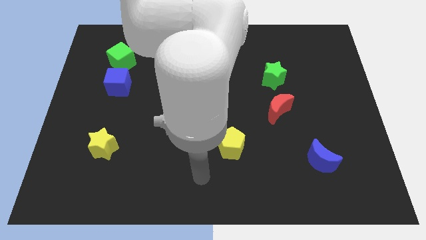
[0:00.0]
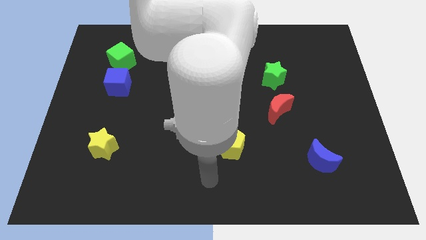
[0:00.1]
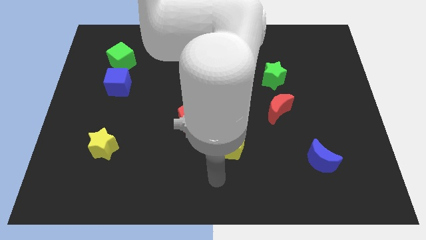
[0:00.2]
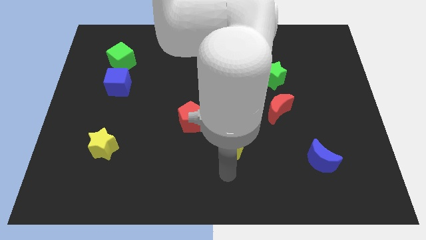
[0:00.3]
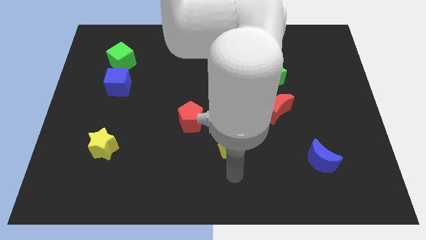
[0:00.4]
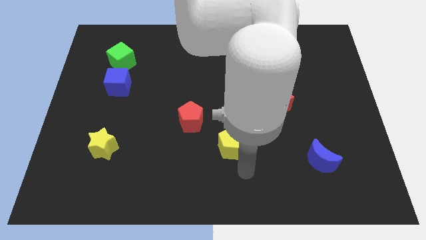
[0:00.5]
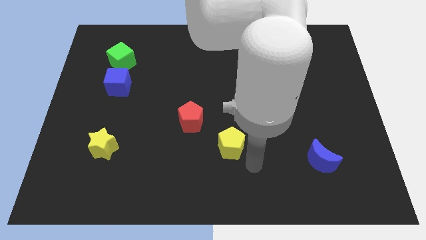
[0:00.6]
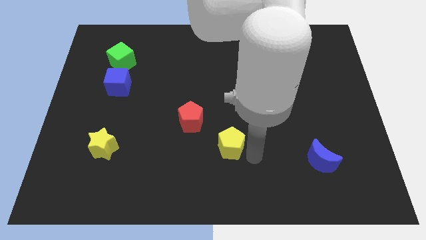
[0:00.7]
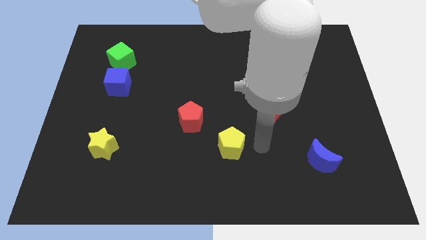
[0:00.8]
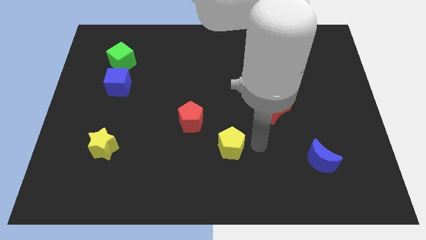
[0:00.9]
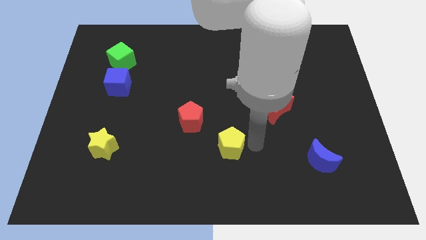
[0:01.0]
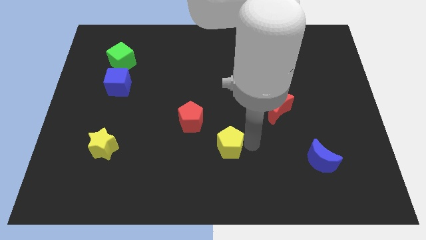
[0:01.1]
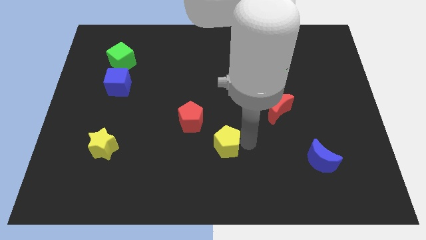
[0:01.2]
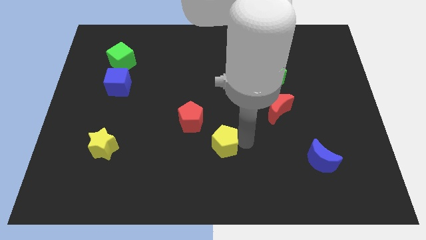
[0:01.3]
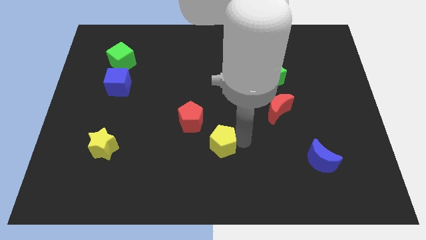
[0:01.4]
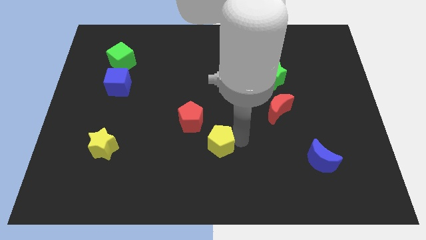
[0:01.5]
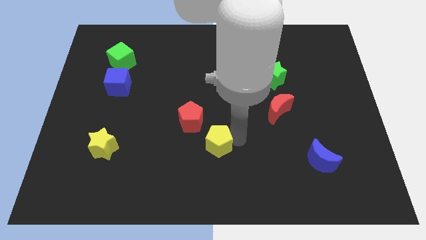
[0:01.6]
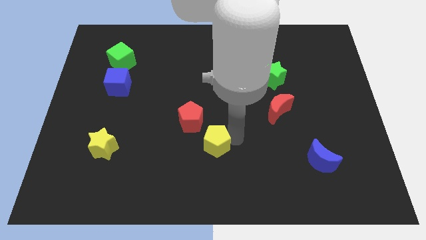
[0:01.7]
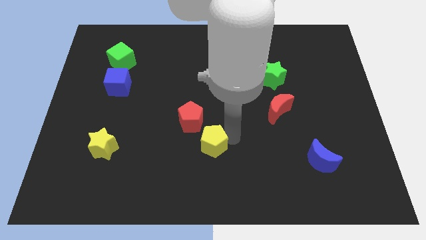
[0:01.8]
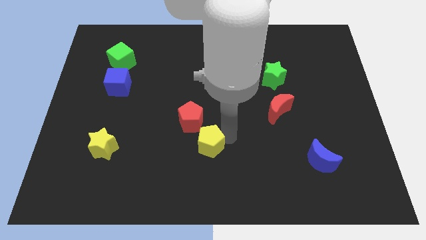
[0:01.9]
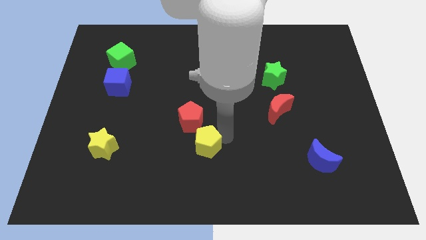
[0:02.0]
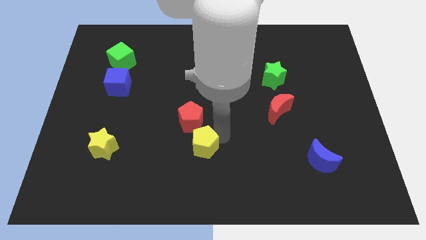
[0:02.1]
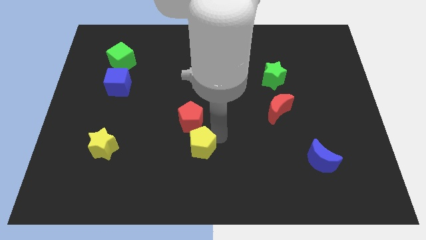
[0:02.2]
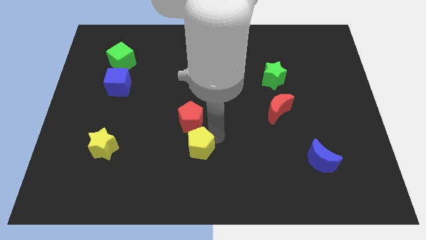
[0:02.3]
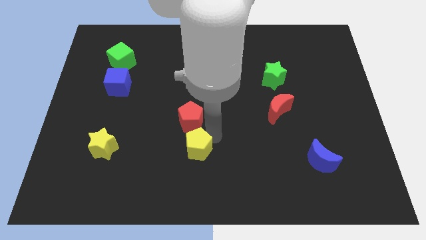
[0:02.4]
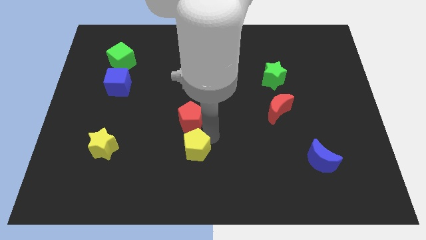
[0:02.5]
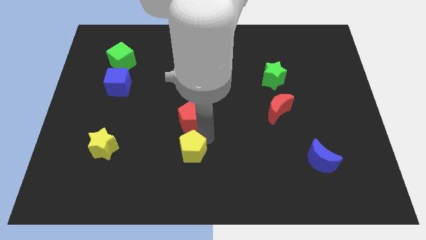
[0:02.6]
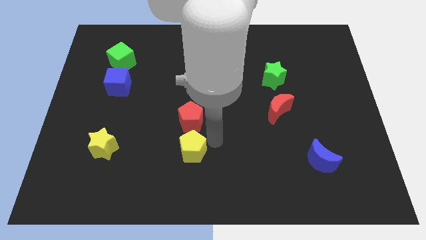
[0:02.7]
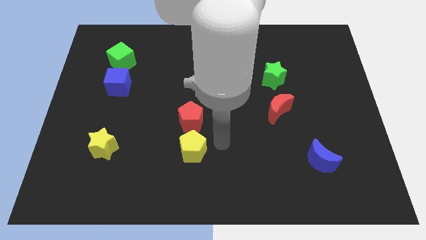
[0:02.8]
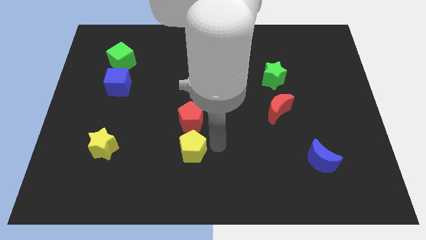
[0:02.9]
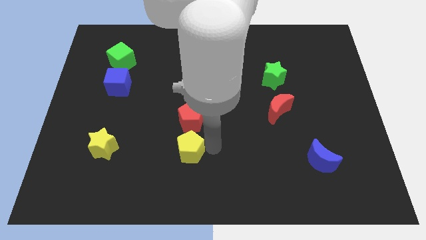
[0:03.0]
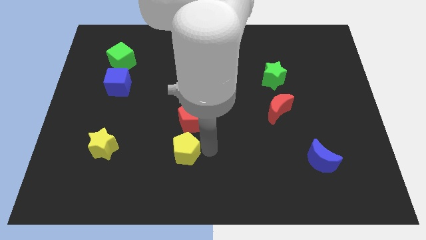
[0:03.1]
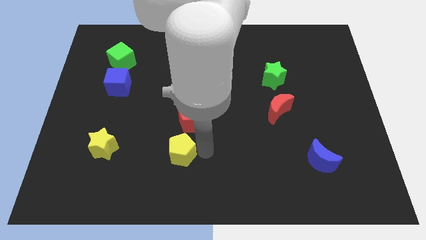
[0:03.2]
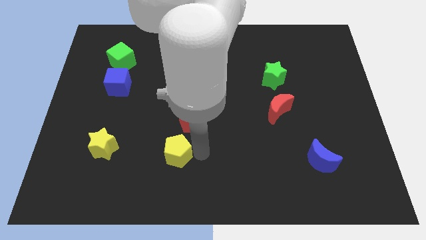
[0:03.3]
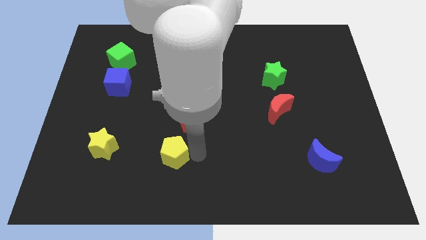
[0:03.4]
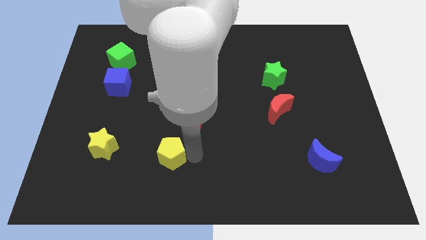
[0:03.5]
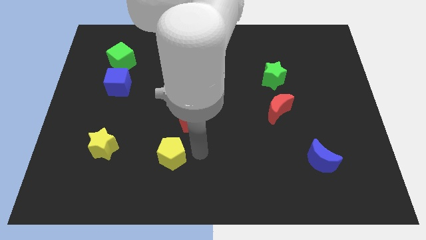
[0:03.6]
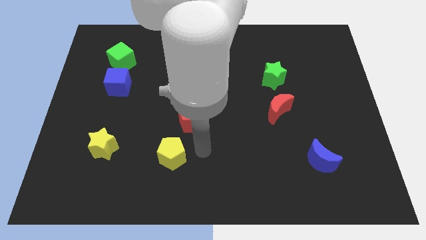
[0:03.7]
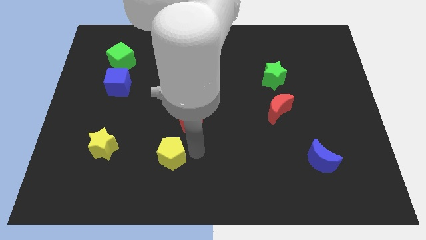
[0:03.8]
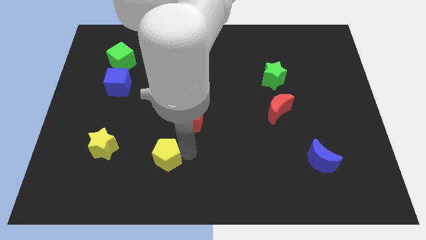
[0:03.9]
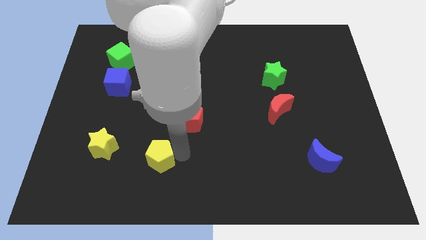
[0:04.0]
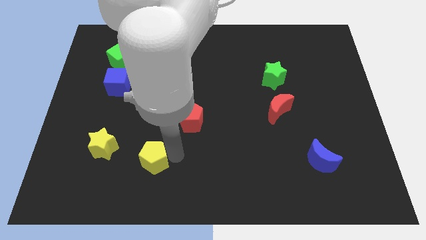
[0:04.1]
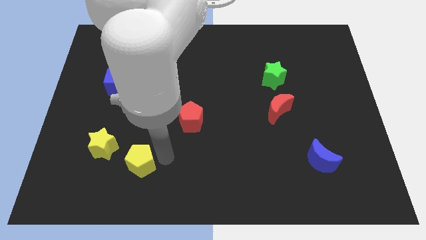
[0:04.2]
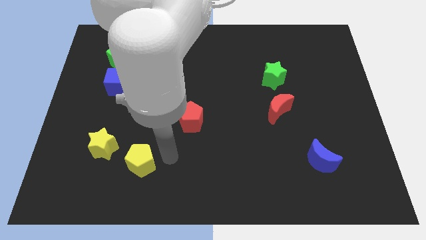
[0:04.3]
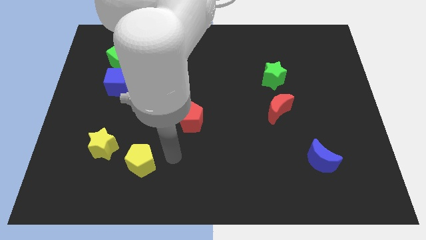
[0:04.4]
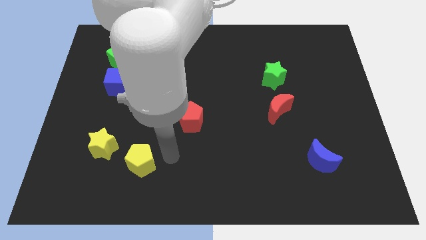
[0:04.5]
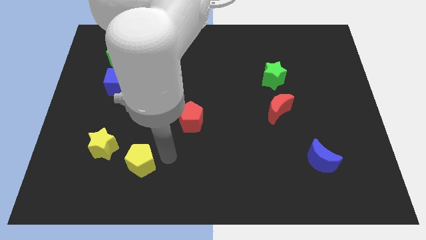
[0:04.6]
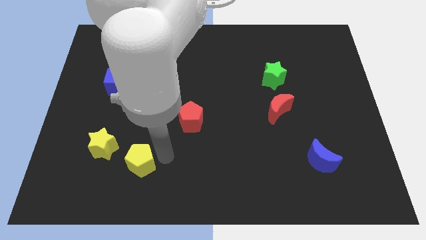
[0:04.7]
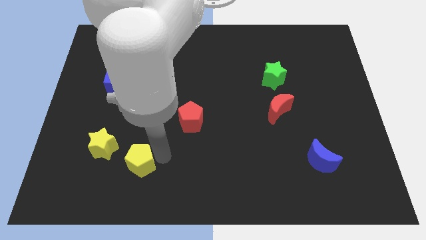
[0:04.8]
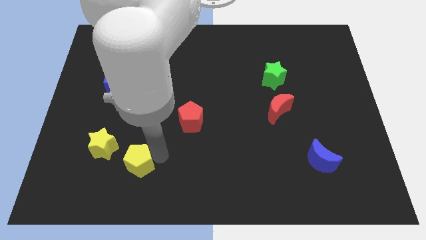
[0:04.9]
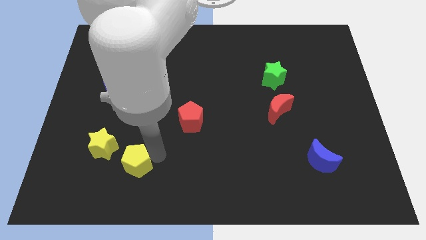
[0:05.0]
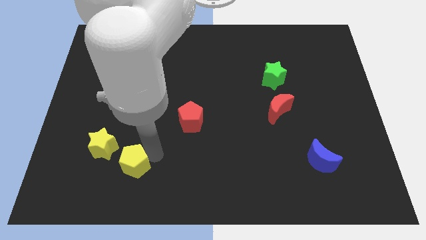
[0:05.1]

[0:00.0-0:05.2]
move the yellow pentagon left

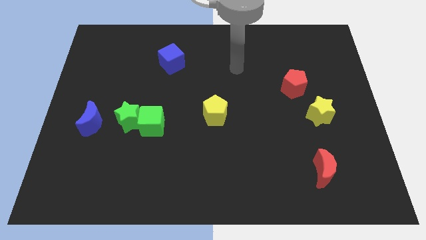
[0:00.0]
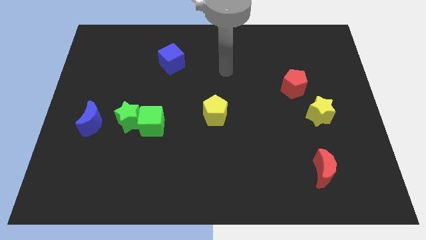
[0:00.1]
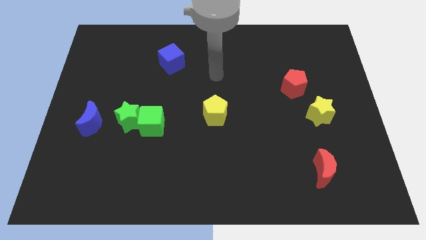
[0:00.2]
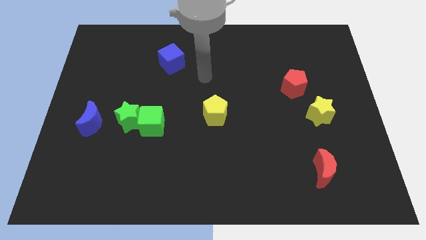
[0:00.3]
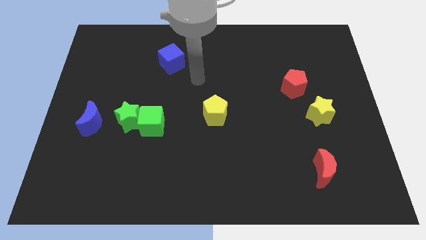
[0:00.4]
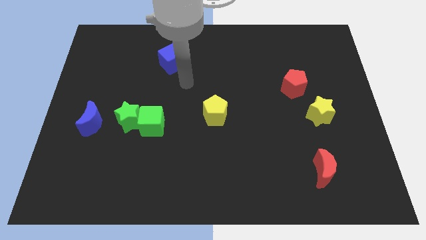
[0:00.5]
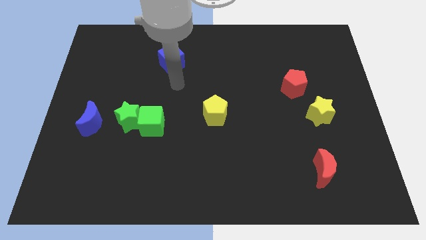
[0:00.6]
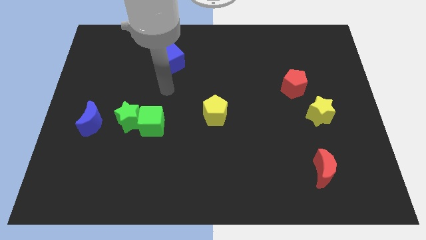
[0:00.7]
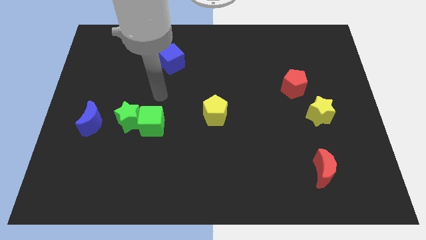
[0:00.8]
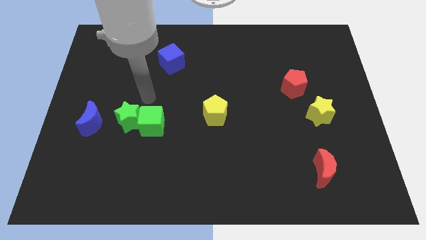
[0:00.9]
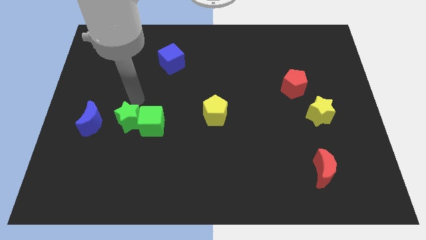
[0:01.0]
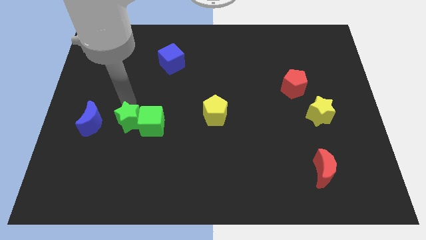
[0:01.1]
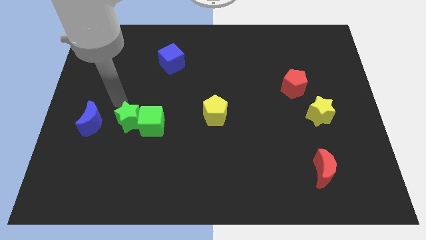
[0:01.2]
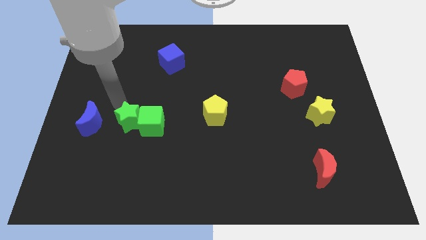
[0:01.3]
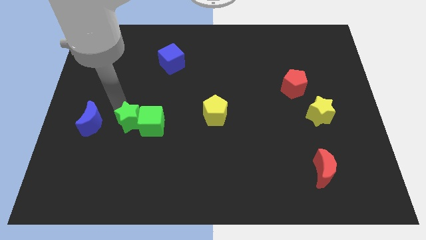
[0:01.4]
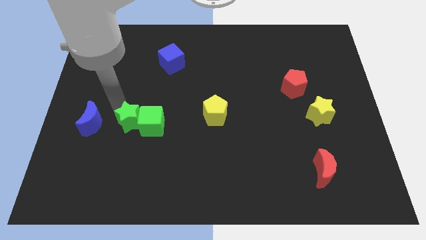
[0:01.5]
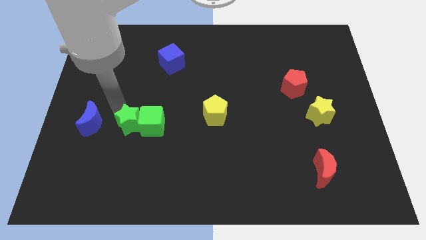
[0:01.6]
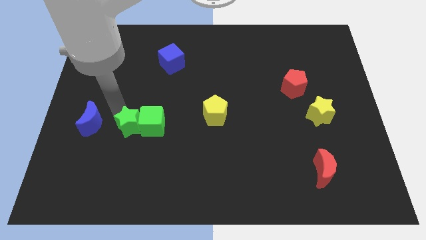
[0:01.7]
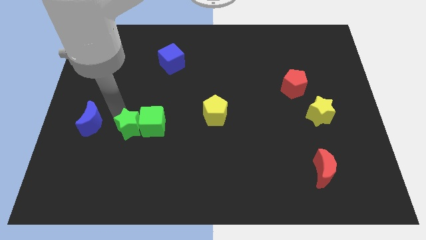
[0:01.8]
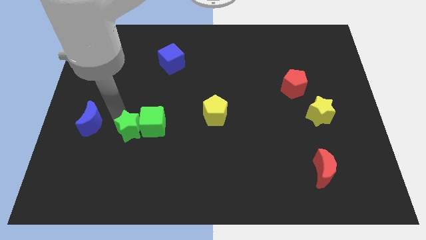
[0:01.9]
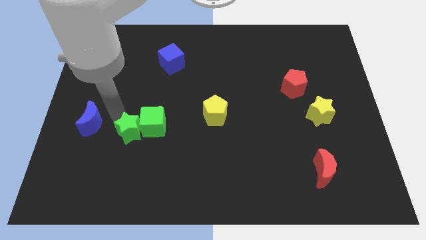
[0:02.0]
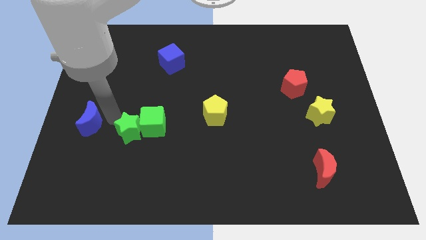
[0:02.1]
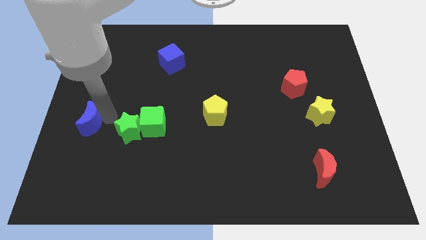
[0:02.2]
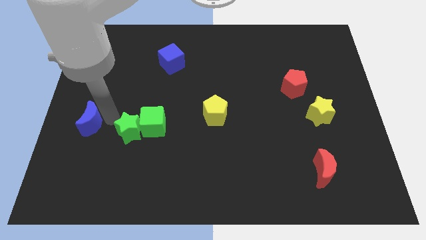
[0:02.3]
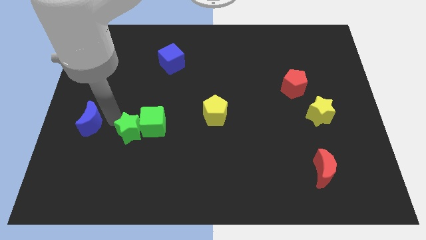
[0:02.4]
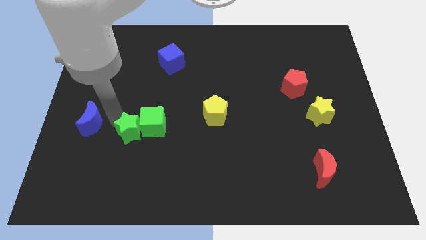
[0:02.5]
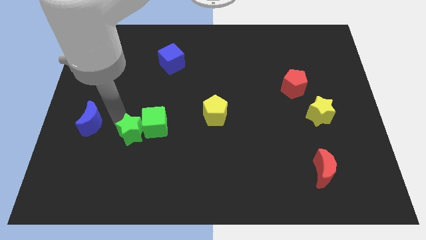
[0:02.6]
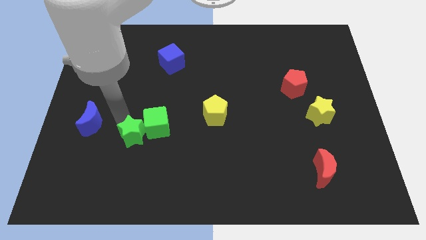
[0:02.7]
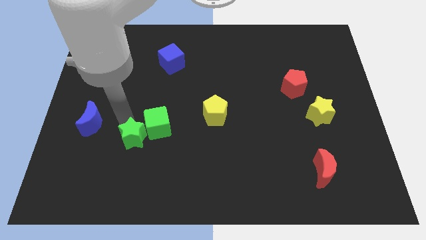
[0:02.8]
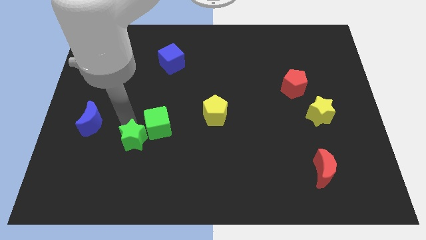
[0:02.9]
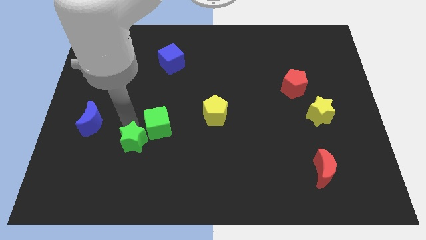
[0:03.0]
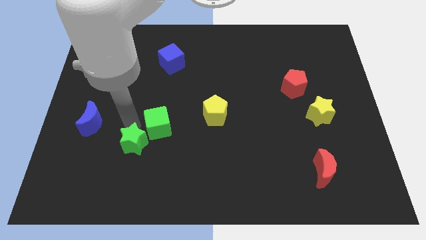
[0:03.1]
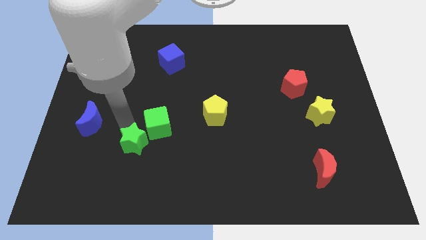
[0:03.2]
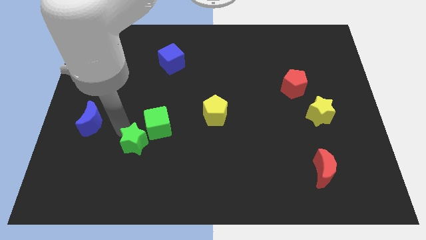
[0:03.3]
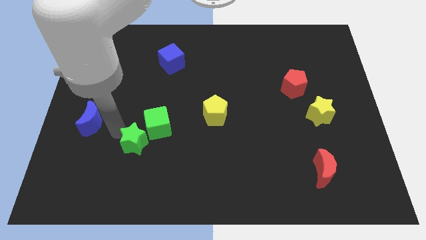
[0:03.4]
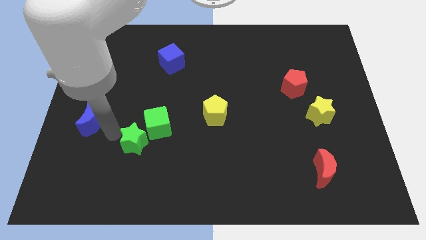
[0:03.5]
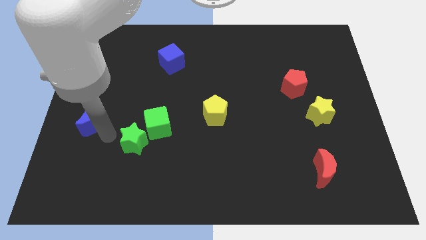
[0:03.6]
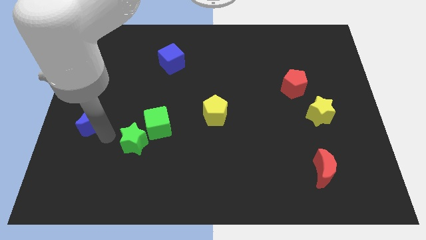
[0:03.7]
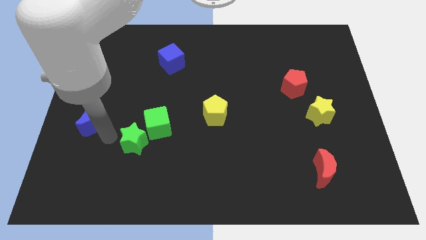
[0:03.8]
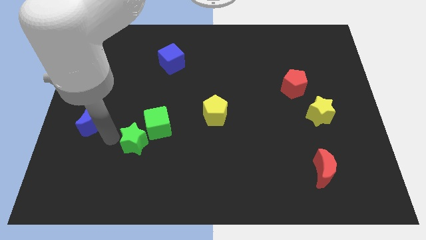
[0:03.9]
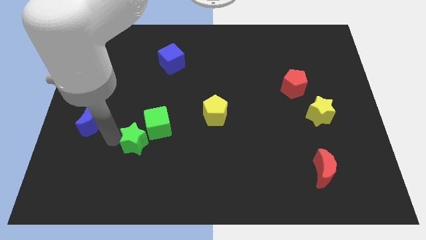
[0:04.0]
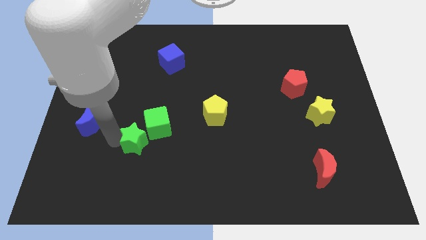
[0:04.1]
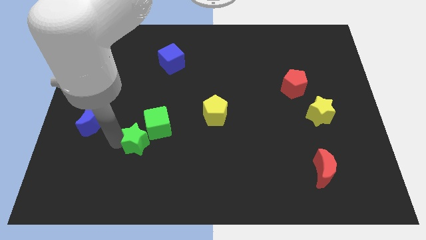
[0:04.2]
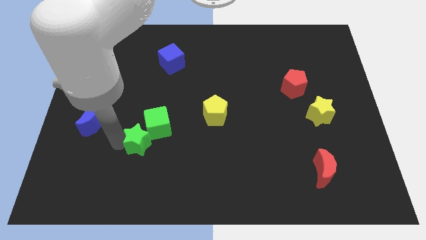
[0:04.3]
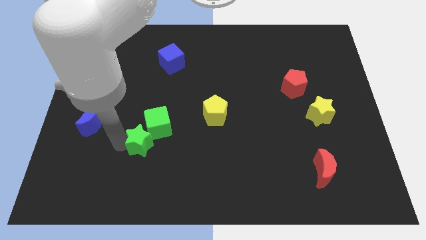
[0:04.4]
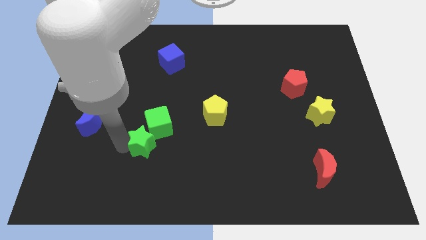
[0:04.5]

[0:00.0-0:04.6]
slide the green star slightly down and right diagonally
